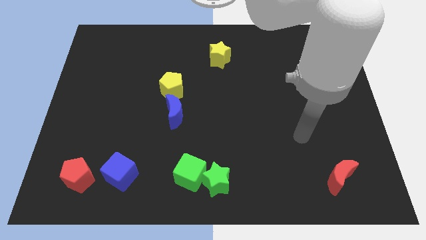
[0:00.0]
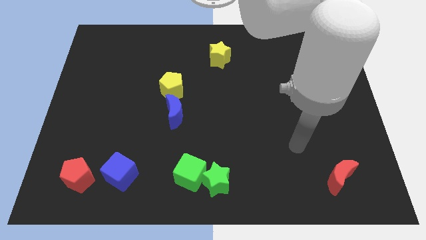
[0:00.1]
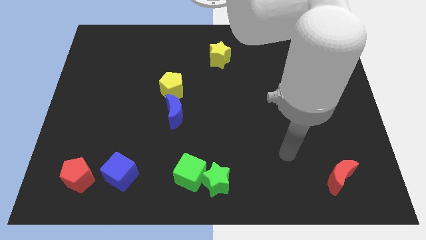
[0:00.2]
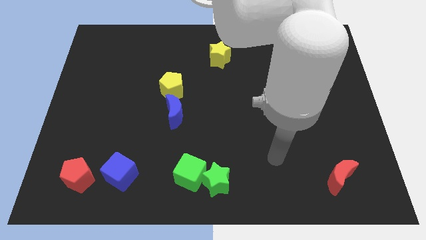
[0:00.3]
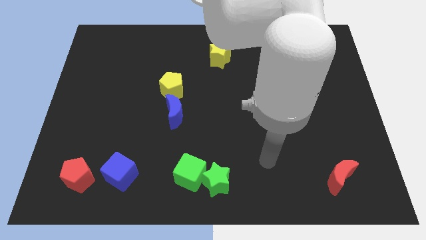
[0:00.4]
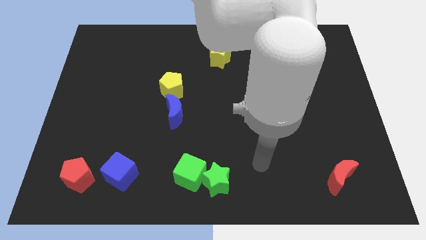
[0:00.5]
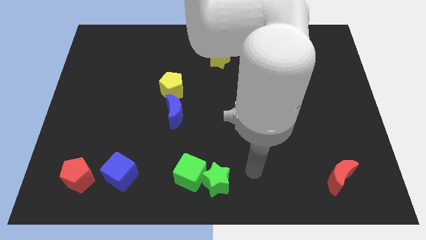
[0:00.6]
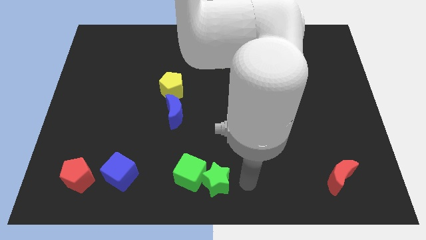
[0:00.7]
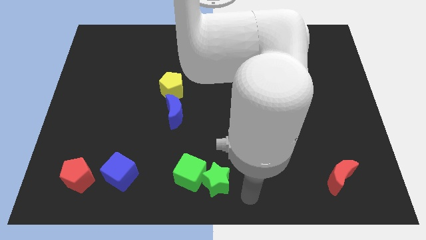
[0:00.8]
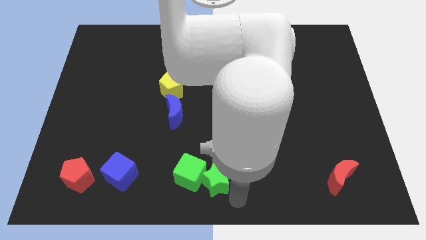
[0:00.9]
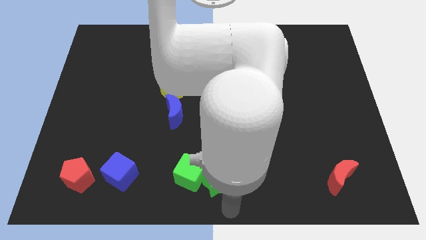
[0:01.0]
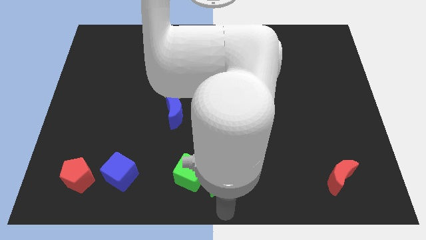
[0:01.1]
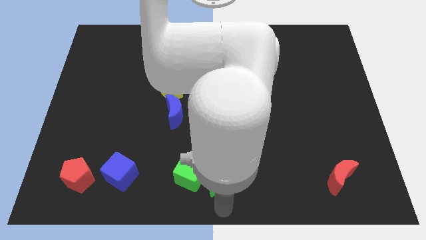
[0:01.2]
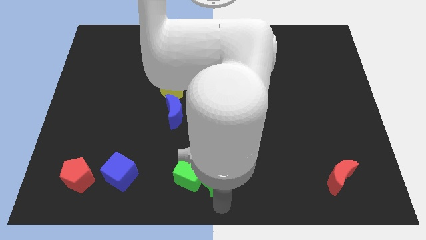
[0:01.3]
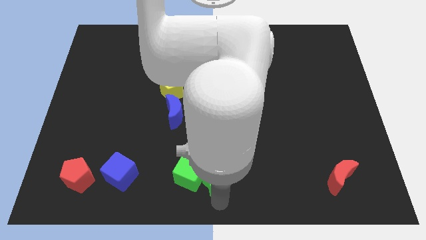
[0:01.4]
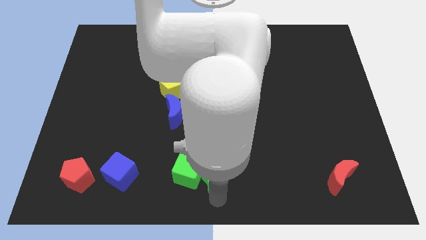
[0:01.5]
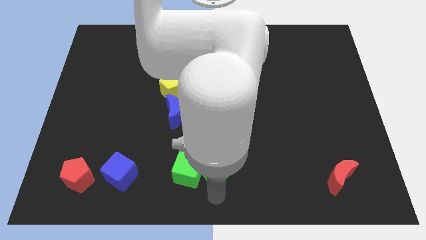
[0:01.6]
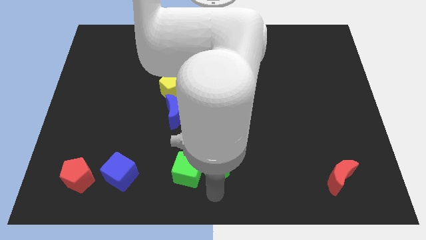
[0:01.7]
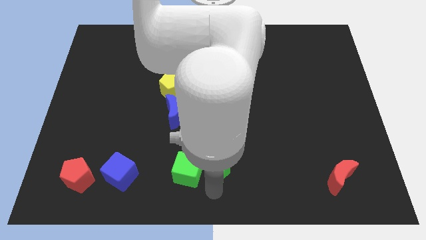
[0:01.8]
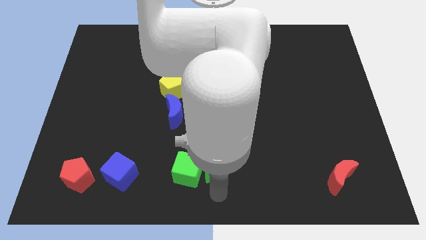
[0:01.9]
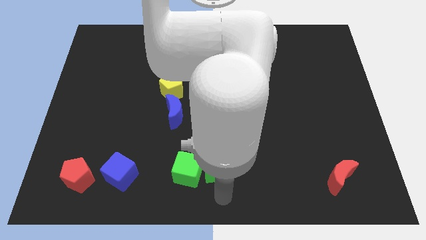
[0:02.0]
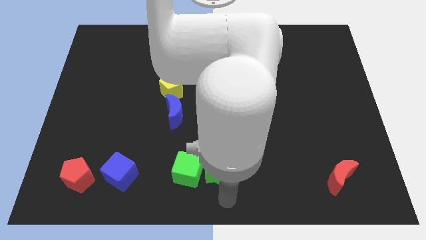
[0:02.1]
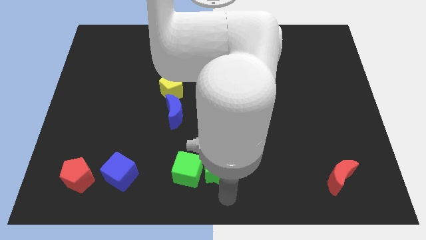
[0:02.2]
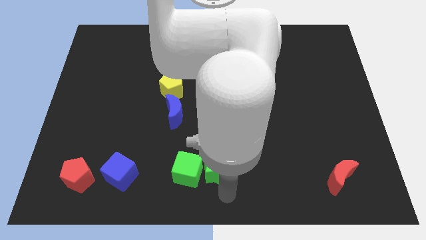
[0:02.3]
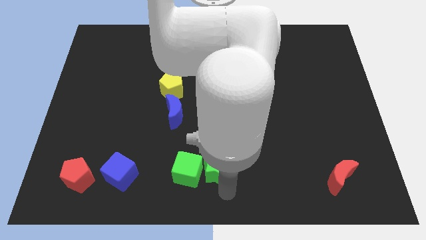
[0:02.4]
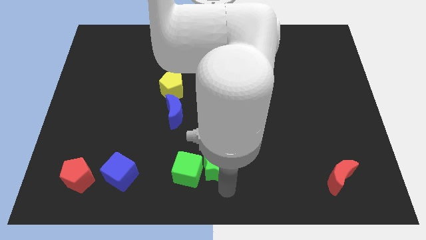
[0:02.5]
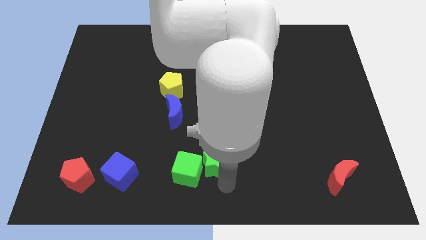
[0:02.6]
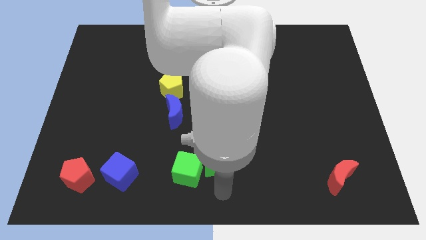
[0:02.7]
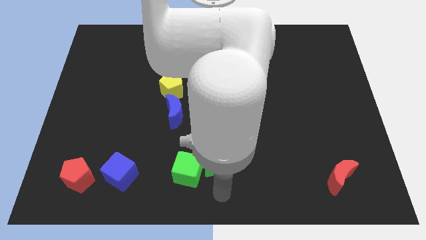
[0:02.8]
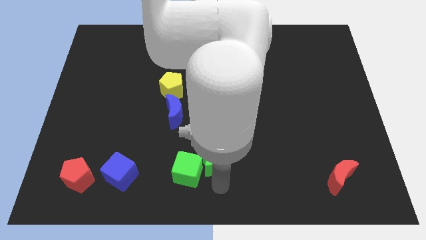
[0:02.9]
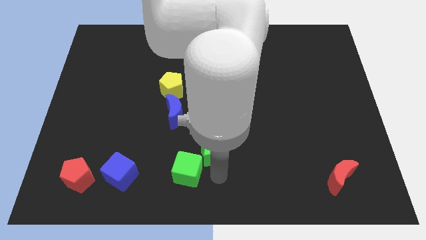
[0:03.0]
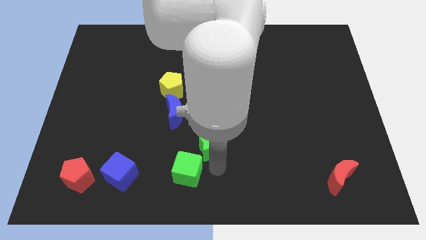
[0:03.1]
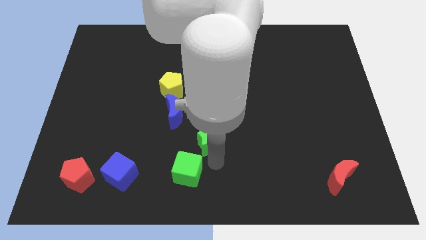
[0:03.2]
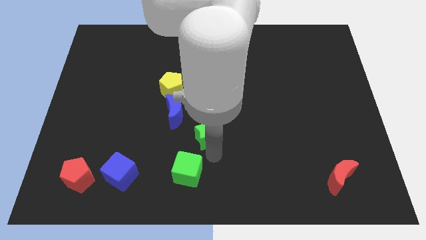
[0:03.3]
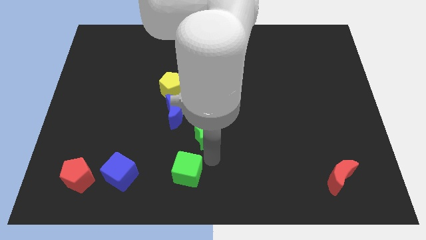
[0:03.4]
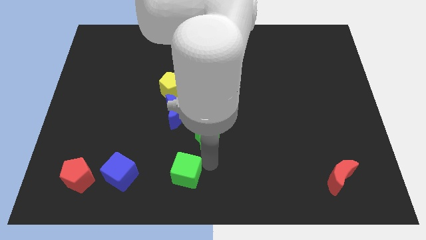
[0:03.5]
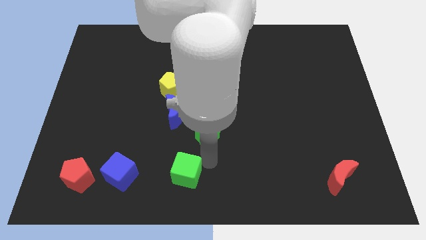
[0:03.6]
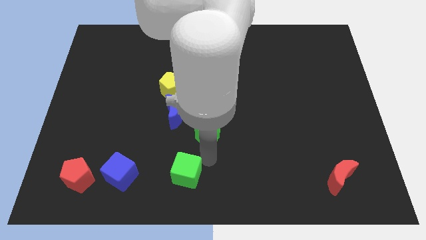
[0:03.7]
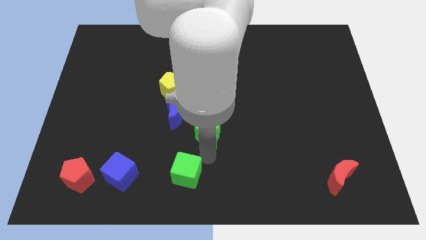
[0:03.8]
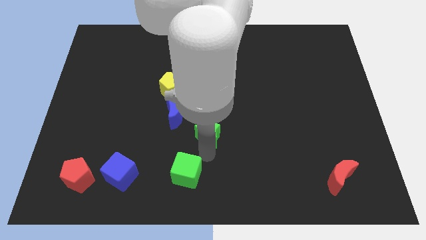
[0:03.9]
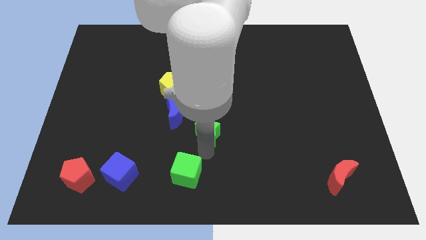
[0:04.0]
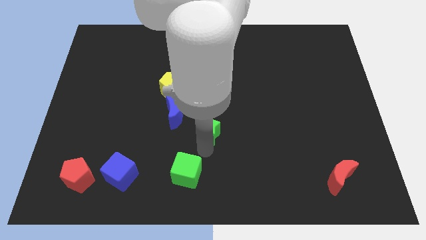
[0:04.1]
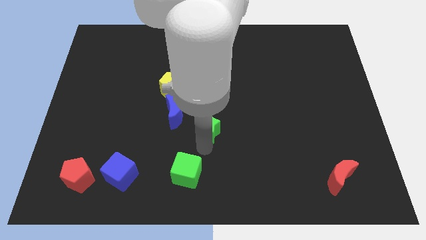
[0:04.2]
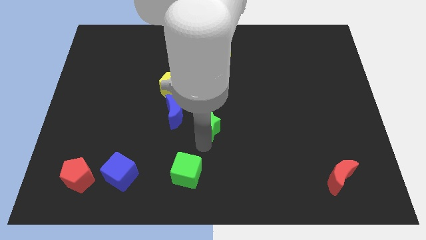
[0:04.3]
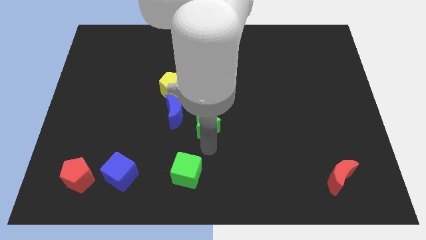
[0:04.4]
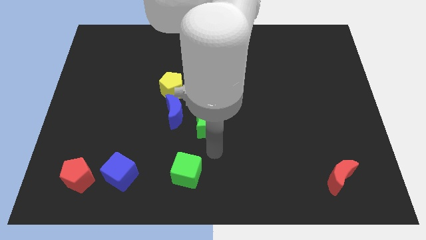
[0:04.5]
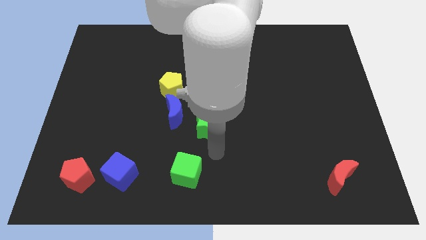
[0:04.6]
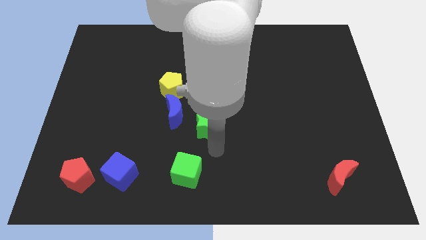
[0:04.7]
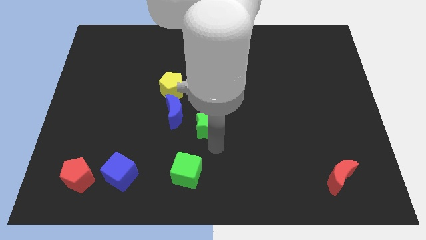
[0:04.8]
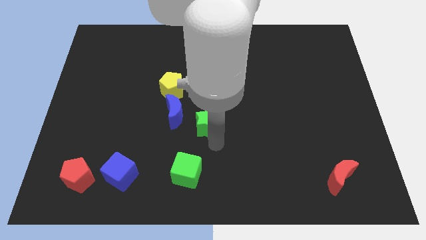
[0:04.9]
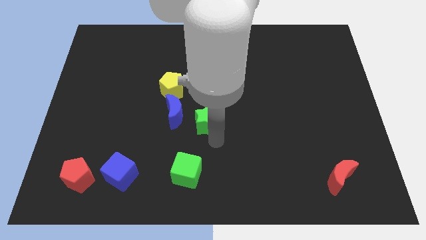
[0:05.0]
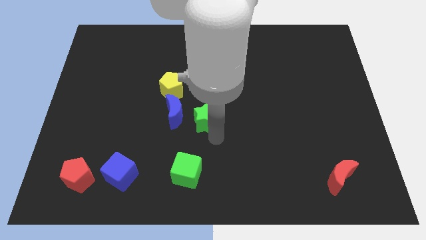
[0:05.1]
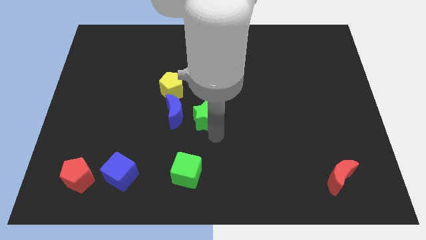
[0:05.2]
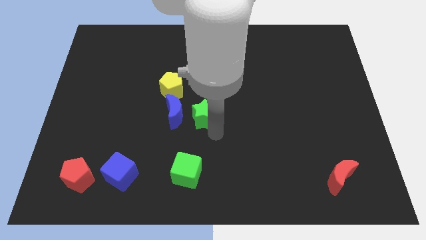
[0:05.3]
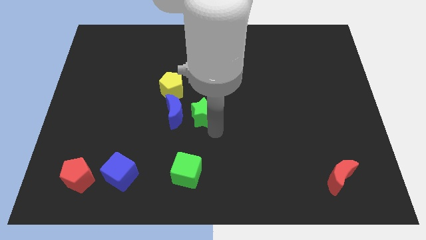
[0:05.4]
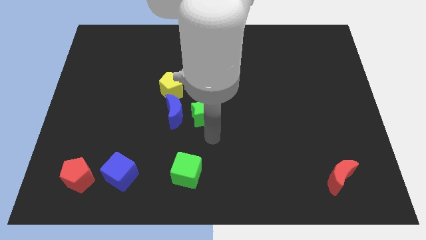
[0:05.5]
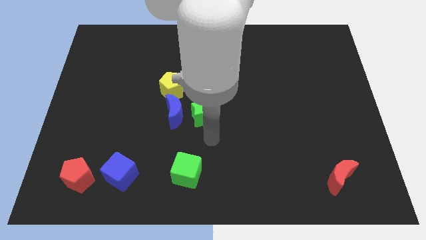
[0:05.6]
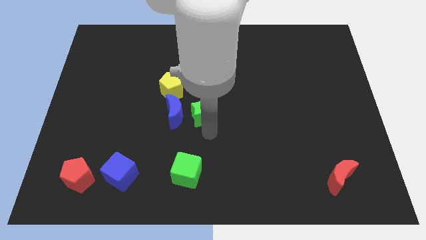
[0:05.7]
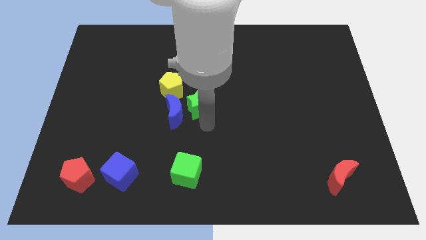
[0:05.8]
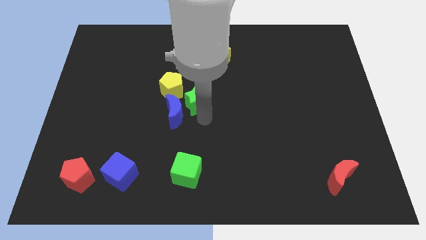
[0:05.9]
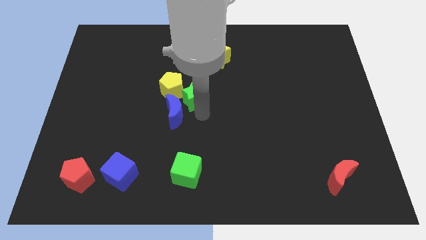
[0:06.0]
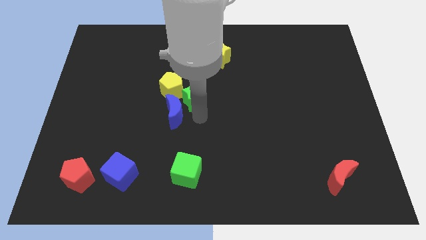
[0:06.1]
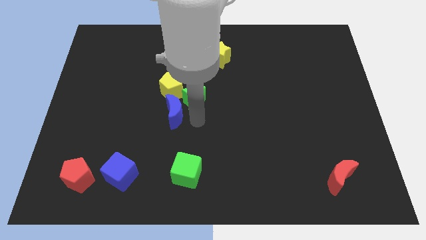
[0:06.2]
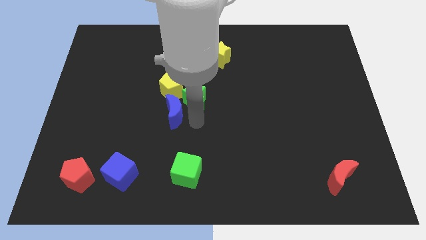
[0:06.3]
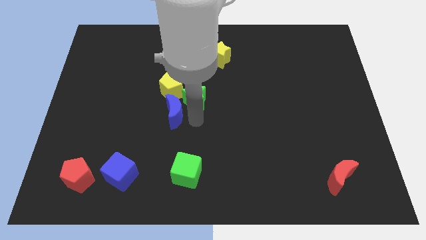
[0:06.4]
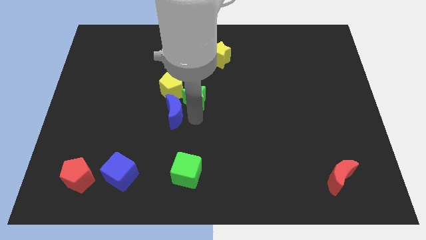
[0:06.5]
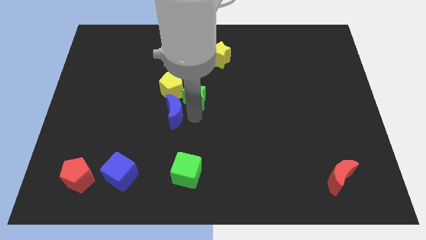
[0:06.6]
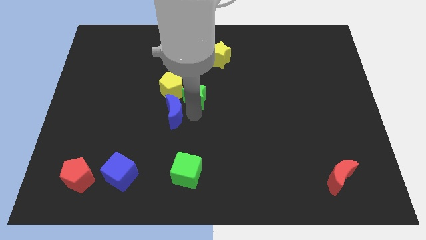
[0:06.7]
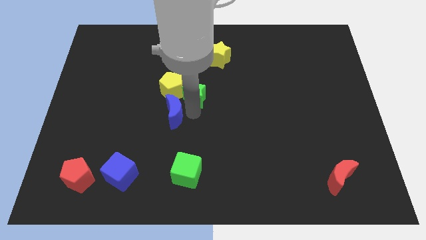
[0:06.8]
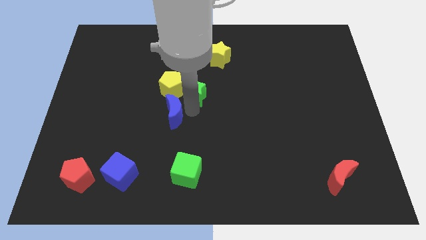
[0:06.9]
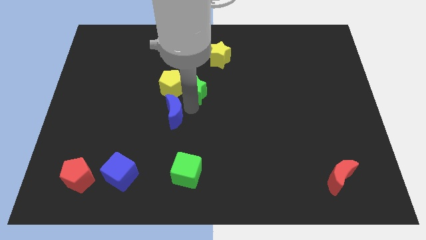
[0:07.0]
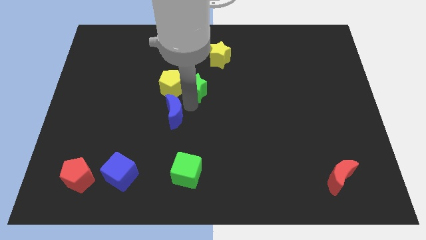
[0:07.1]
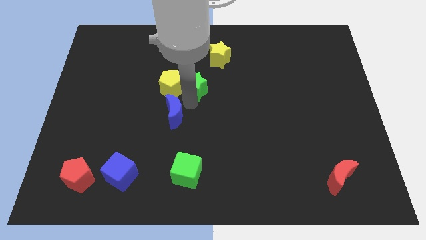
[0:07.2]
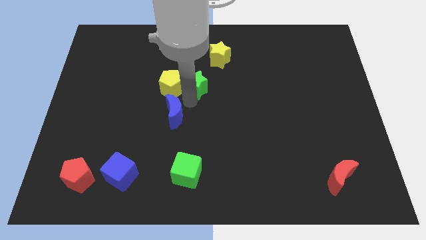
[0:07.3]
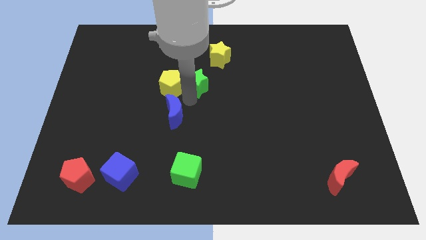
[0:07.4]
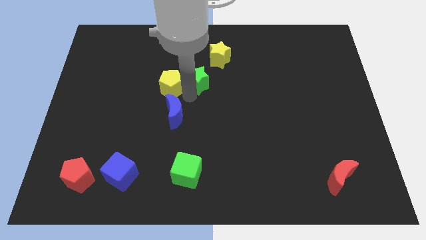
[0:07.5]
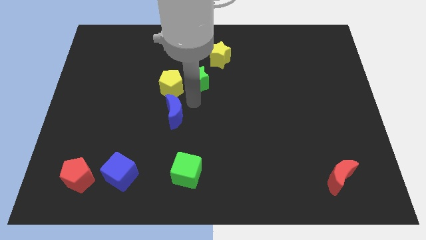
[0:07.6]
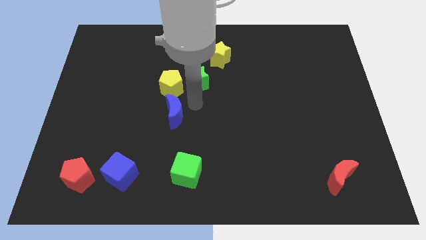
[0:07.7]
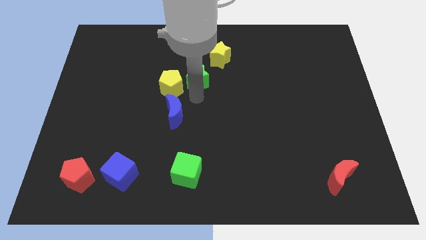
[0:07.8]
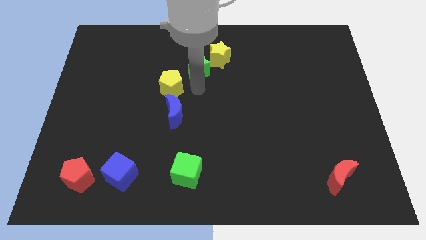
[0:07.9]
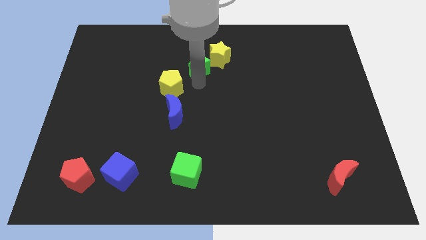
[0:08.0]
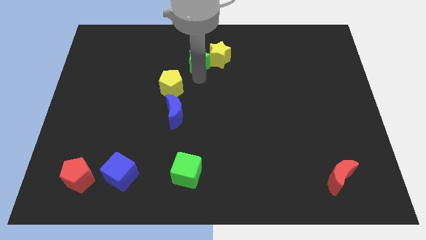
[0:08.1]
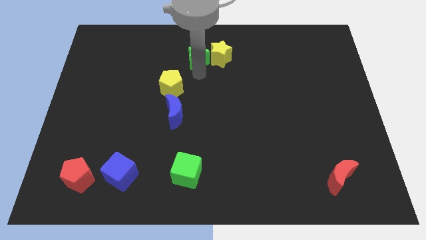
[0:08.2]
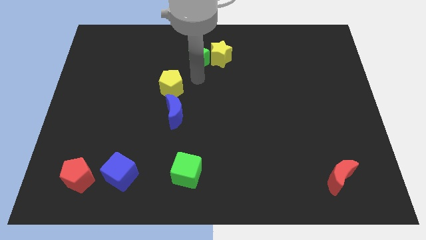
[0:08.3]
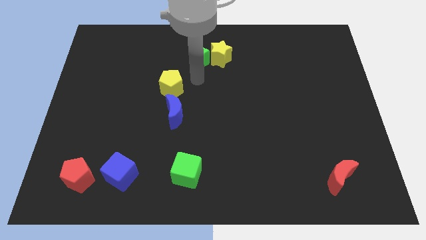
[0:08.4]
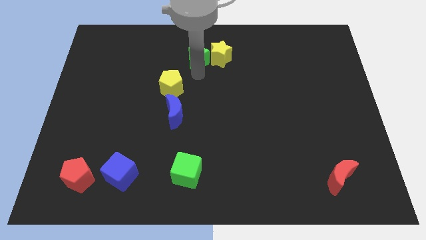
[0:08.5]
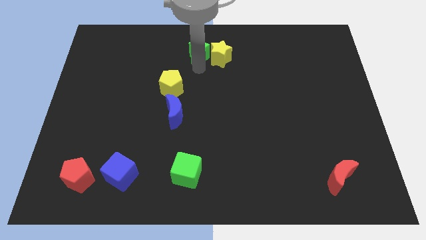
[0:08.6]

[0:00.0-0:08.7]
push the green star to the top
